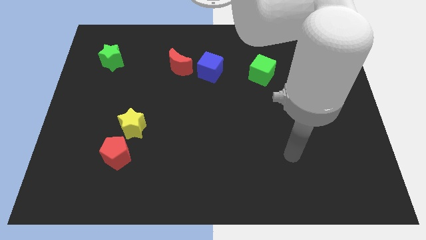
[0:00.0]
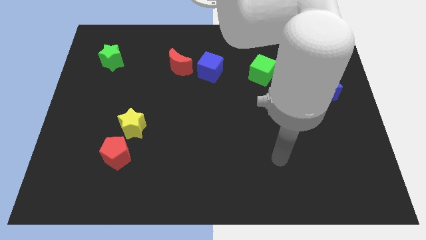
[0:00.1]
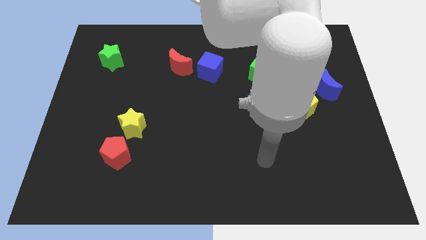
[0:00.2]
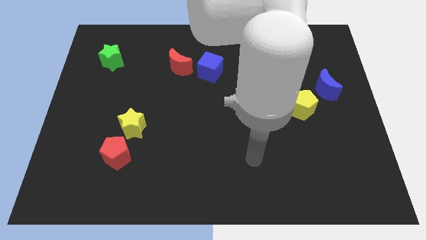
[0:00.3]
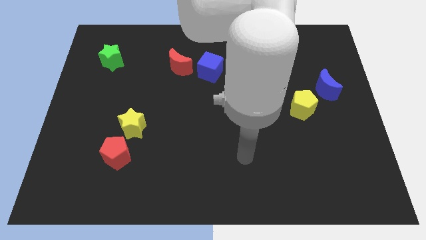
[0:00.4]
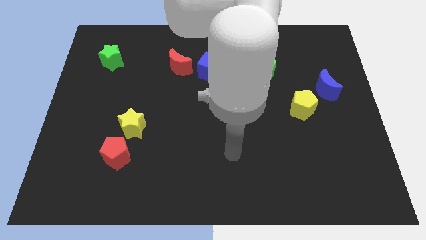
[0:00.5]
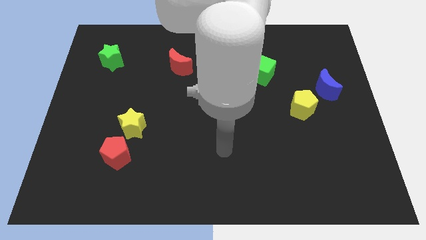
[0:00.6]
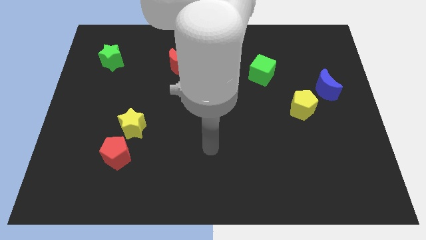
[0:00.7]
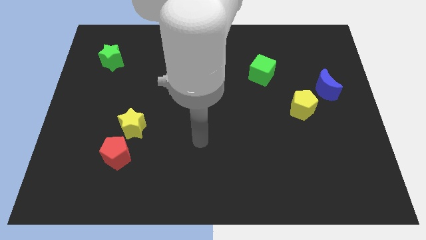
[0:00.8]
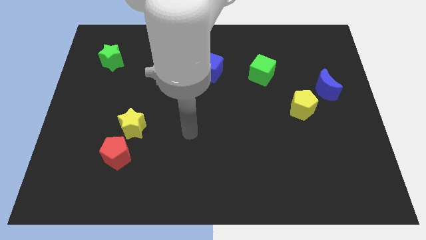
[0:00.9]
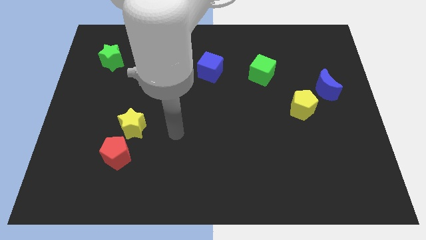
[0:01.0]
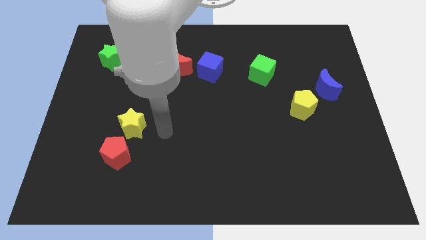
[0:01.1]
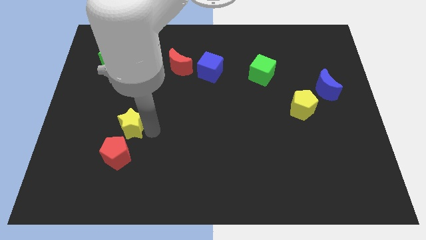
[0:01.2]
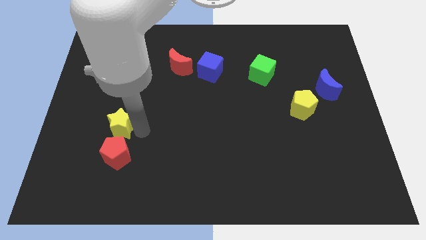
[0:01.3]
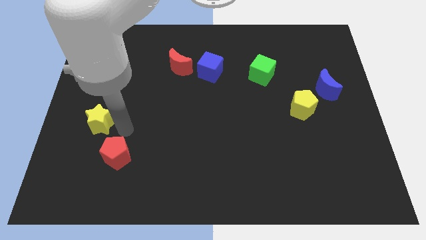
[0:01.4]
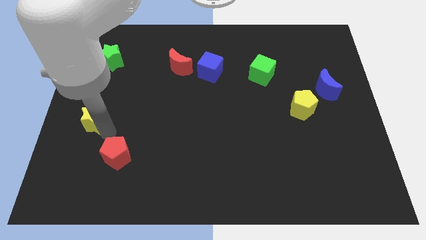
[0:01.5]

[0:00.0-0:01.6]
move the red pentagon away from the yellow star

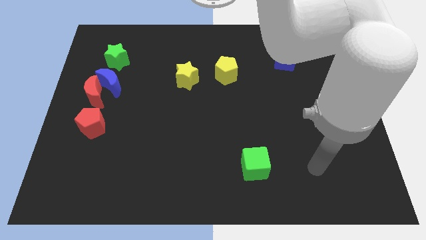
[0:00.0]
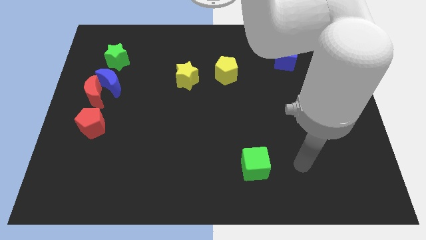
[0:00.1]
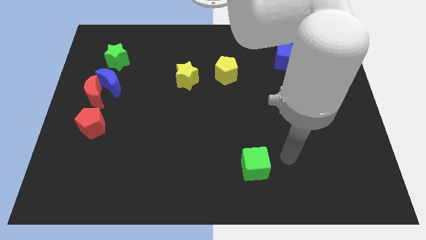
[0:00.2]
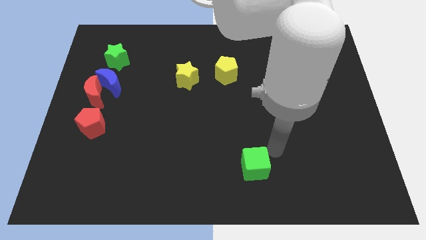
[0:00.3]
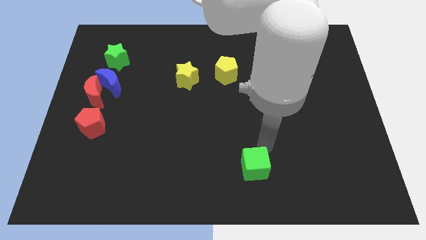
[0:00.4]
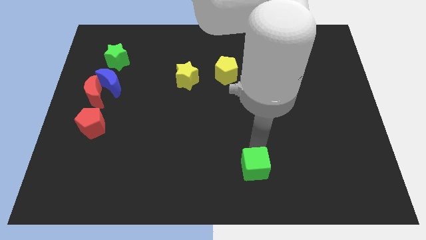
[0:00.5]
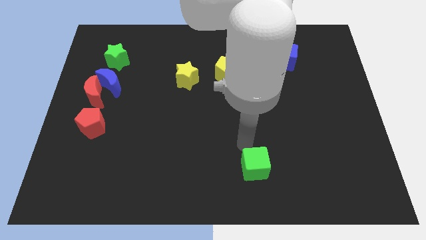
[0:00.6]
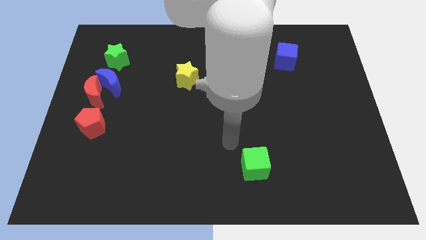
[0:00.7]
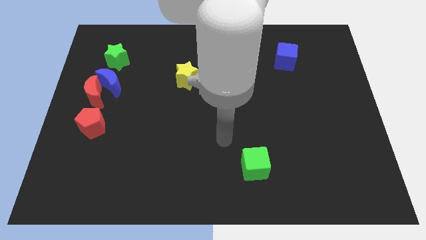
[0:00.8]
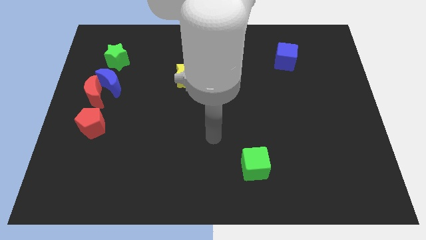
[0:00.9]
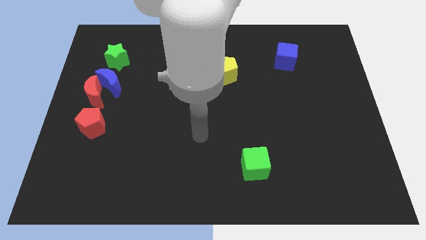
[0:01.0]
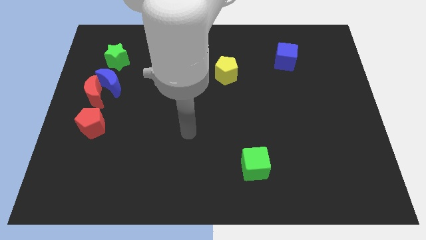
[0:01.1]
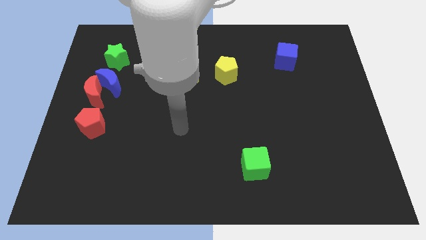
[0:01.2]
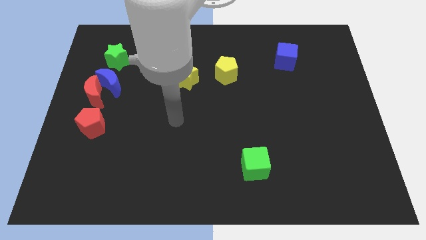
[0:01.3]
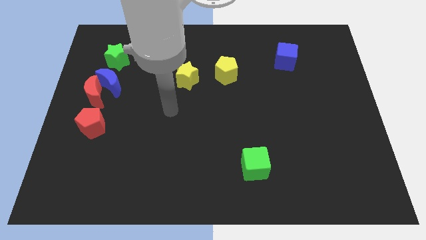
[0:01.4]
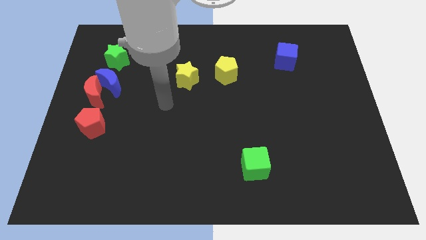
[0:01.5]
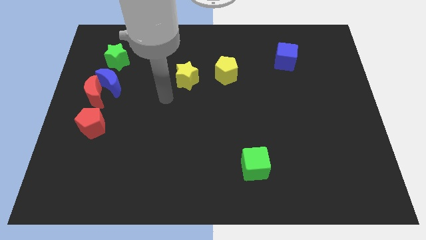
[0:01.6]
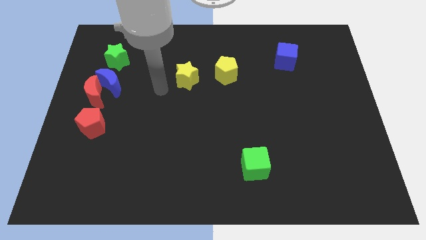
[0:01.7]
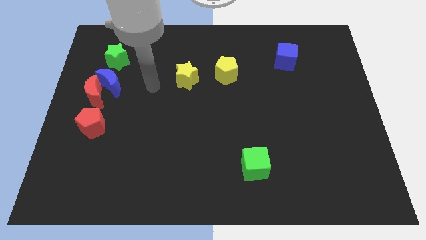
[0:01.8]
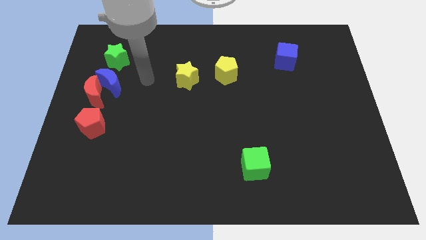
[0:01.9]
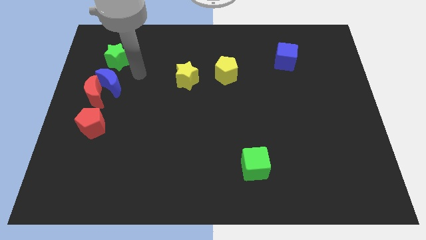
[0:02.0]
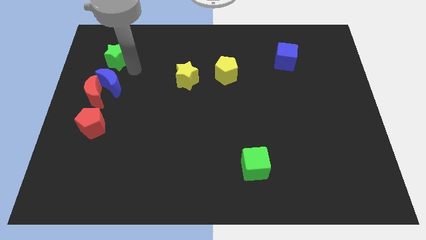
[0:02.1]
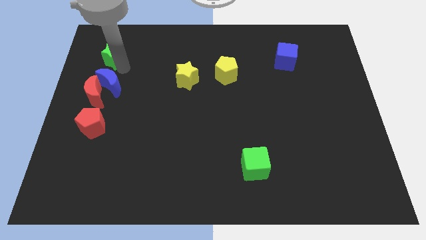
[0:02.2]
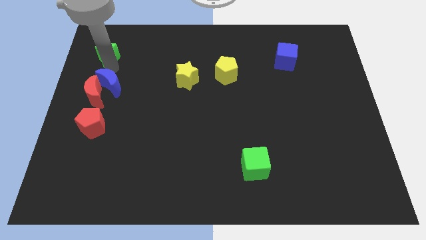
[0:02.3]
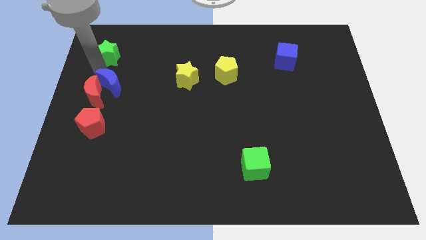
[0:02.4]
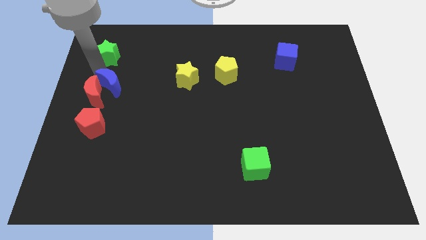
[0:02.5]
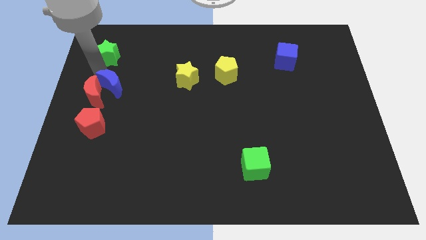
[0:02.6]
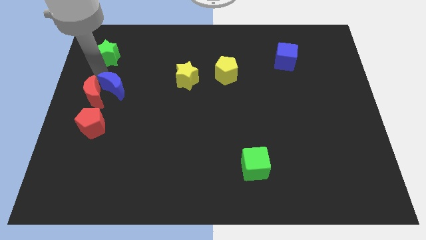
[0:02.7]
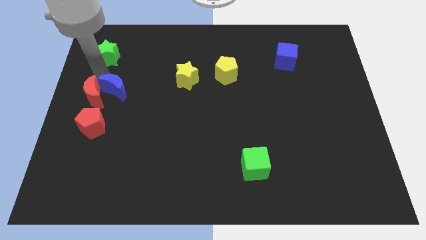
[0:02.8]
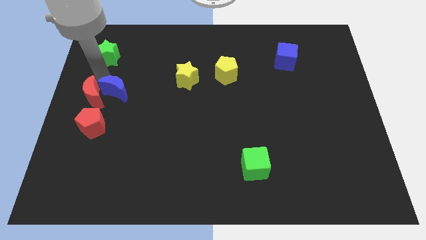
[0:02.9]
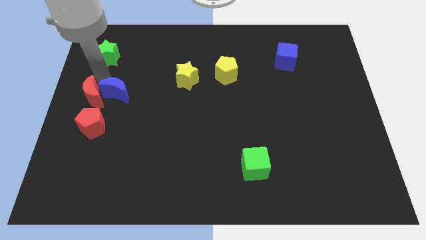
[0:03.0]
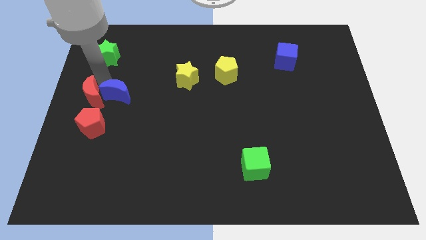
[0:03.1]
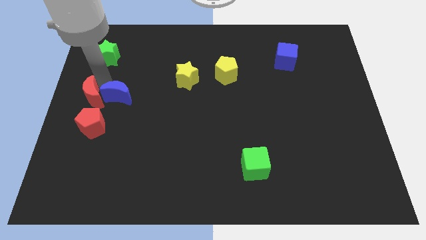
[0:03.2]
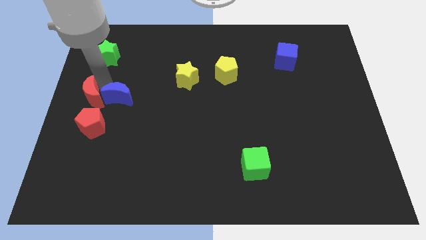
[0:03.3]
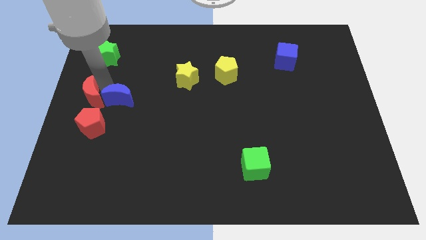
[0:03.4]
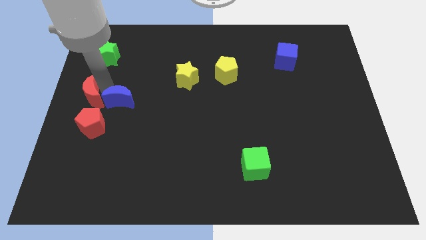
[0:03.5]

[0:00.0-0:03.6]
separate the blue moon from the red moon and green star

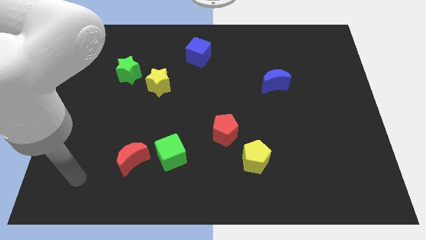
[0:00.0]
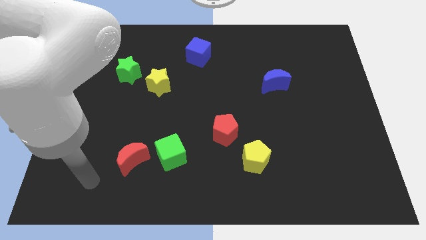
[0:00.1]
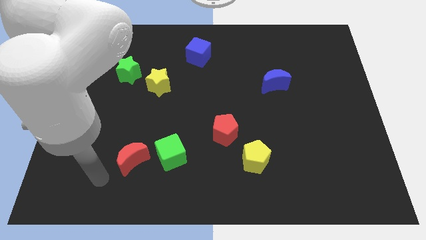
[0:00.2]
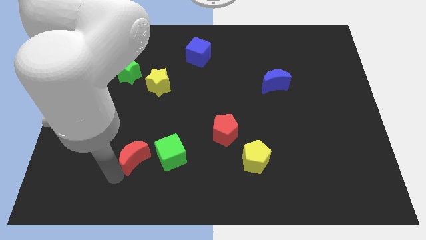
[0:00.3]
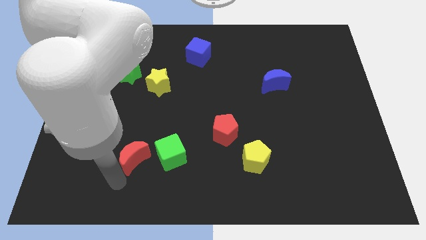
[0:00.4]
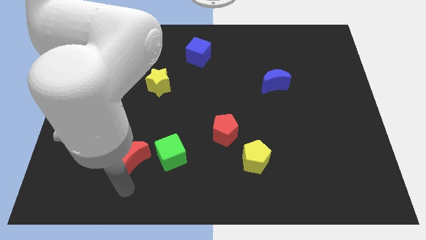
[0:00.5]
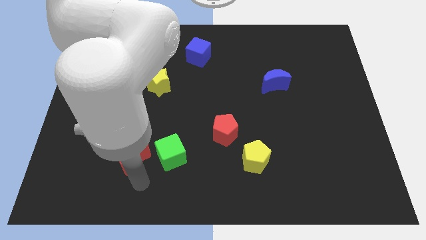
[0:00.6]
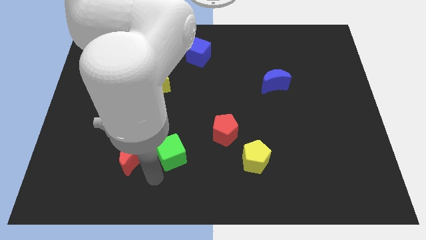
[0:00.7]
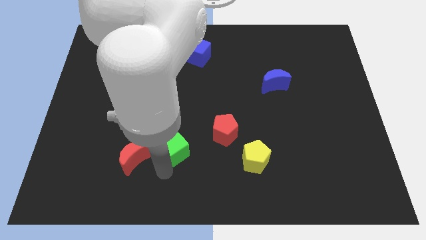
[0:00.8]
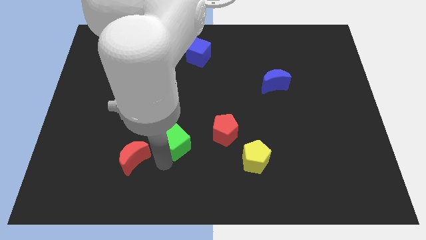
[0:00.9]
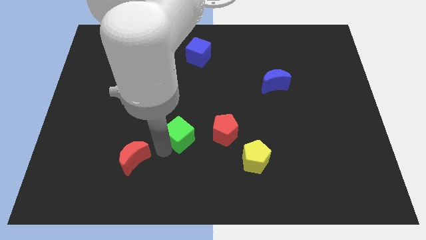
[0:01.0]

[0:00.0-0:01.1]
separate the red moon from the green cube

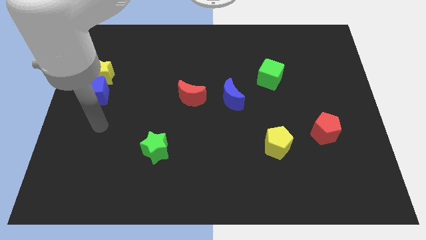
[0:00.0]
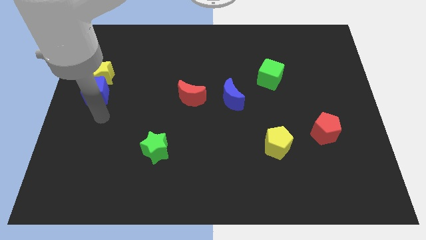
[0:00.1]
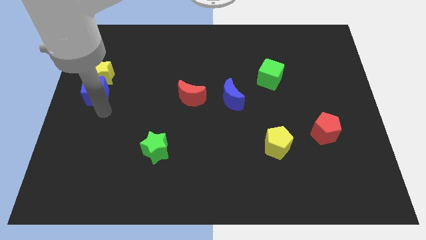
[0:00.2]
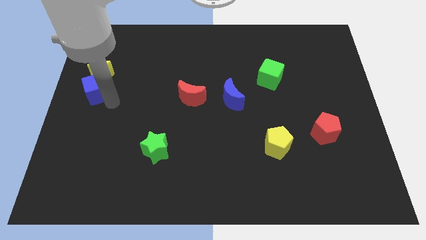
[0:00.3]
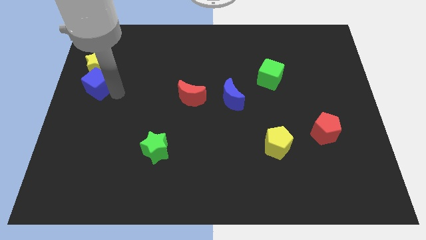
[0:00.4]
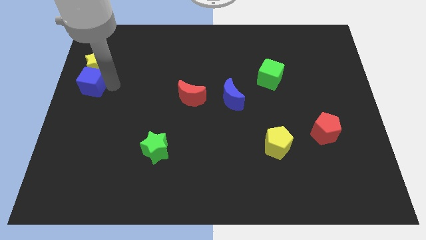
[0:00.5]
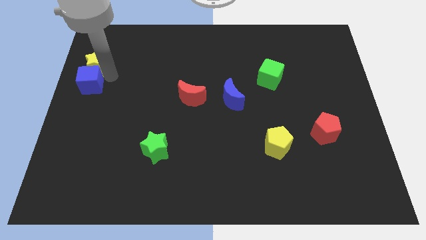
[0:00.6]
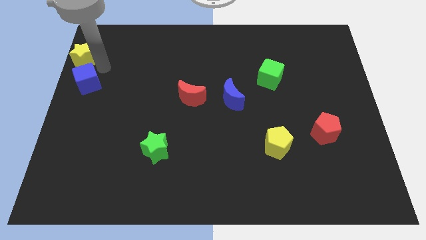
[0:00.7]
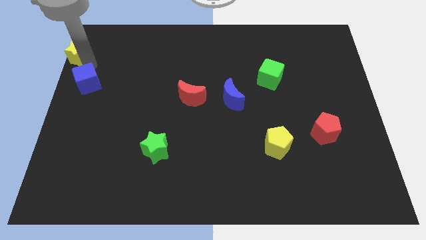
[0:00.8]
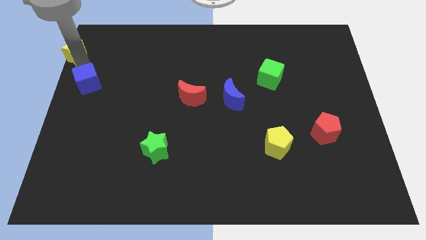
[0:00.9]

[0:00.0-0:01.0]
pull the blue cube apart from the yellow star

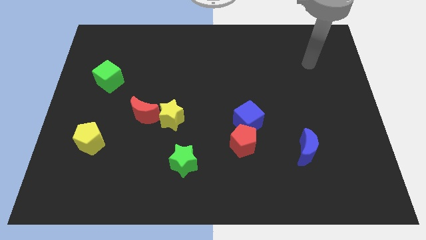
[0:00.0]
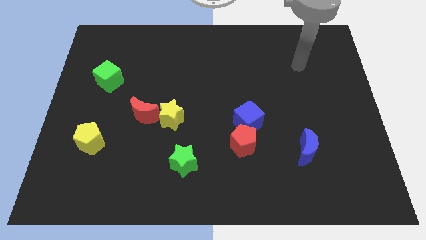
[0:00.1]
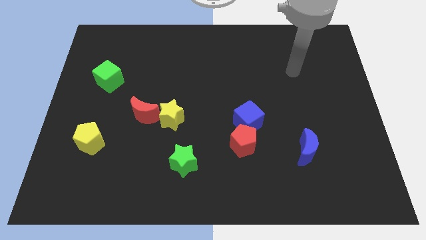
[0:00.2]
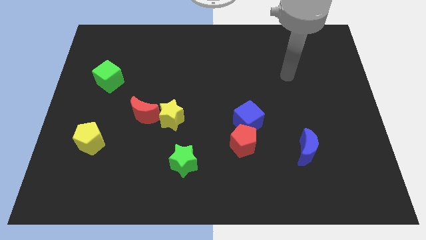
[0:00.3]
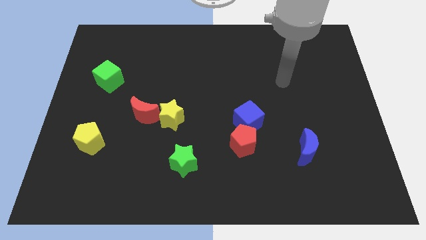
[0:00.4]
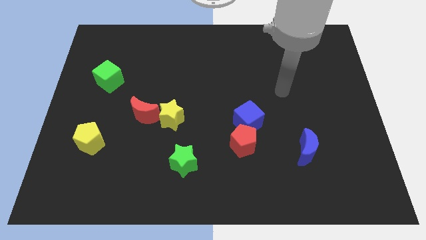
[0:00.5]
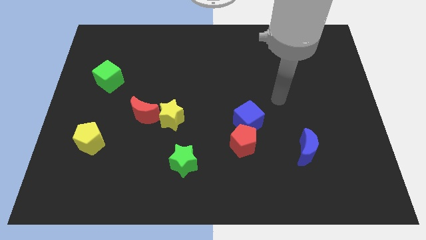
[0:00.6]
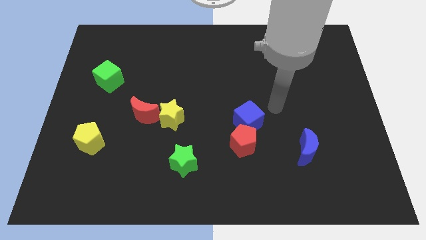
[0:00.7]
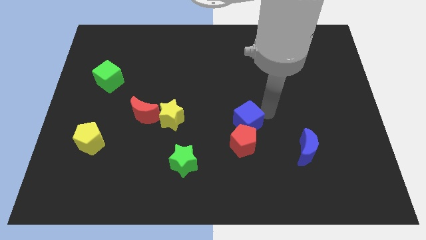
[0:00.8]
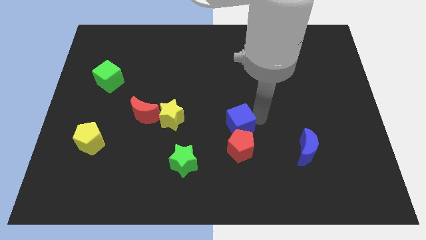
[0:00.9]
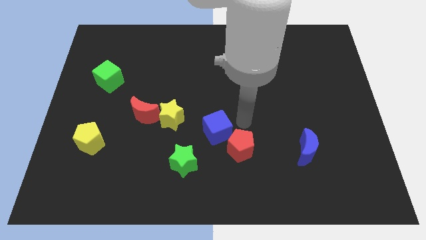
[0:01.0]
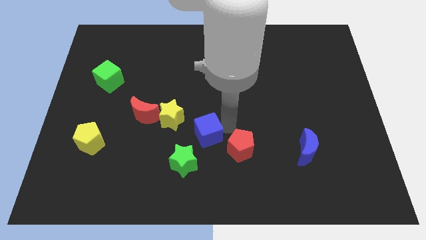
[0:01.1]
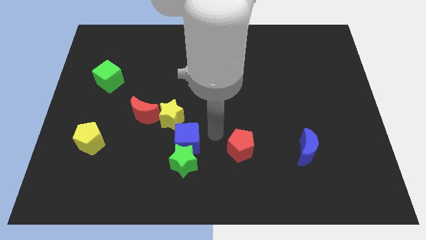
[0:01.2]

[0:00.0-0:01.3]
separate the red pentagon from the blue cube

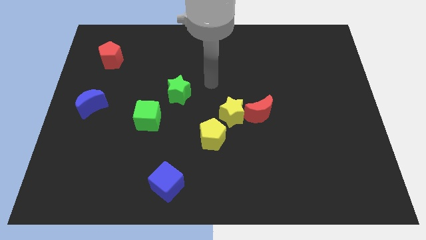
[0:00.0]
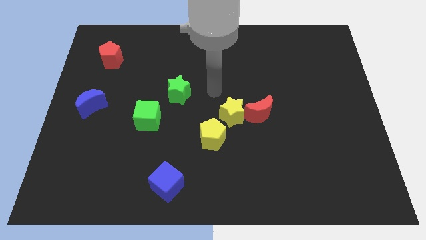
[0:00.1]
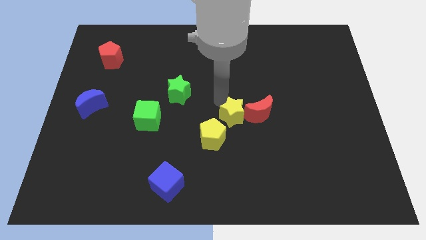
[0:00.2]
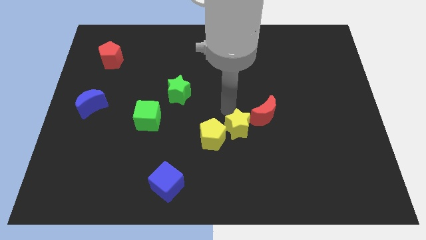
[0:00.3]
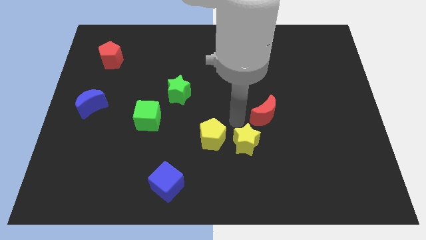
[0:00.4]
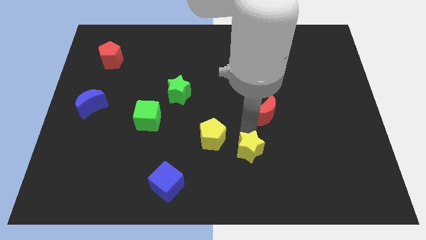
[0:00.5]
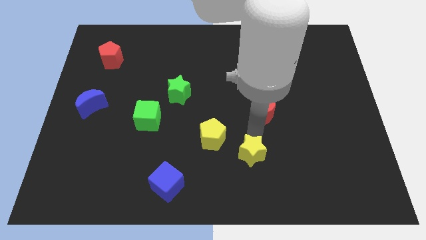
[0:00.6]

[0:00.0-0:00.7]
move the red moon away from the yellow star
